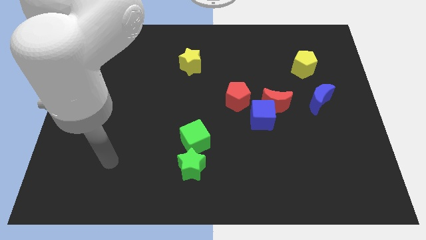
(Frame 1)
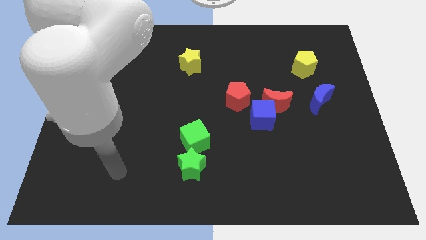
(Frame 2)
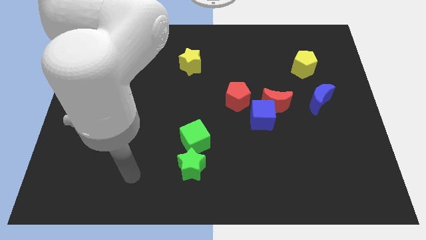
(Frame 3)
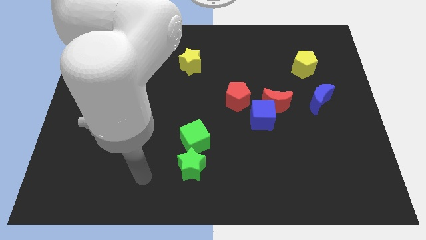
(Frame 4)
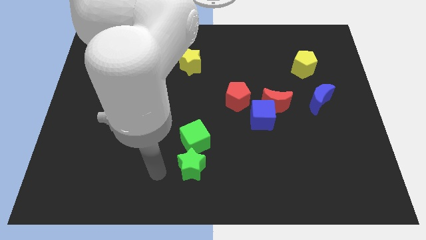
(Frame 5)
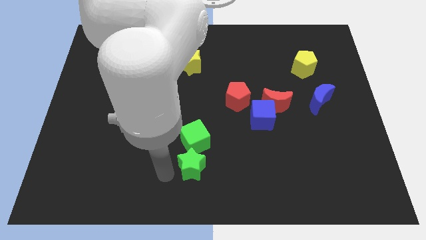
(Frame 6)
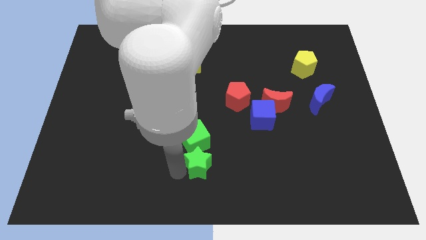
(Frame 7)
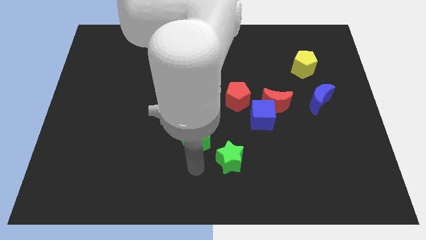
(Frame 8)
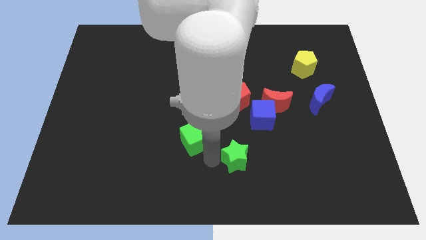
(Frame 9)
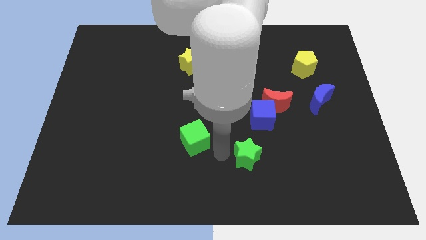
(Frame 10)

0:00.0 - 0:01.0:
separate the green cube from the green star

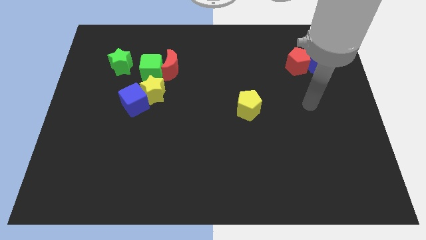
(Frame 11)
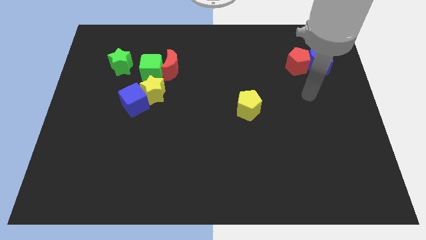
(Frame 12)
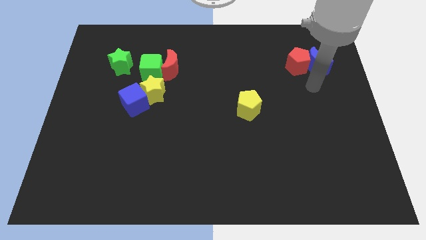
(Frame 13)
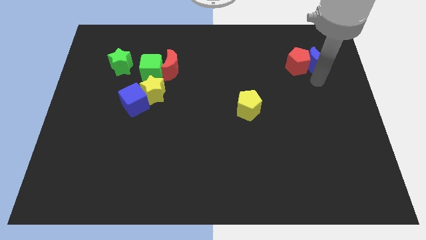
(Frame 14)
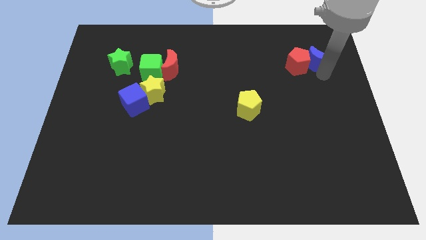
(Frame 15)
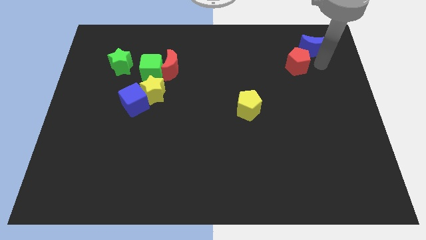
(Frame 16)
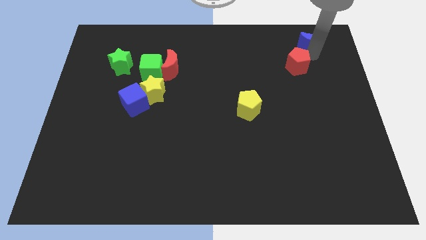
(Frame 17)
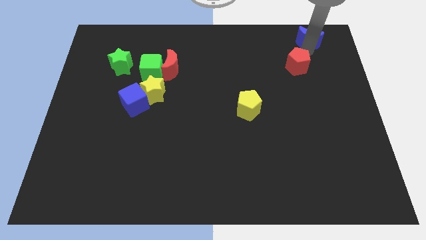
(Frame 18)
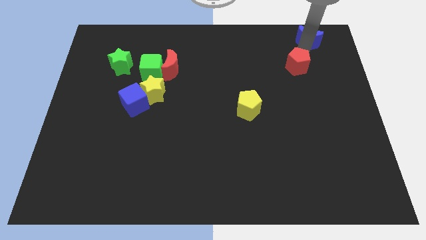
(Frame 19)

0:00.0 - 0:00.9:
move the red pentagon away from the blue moon

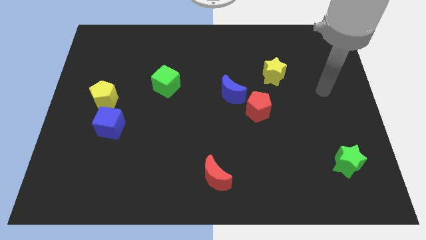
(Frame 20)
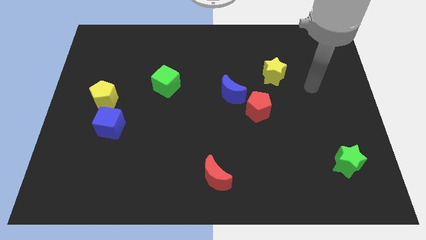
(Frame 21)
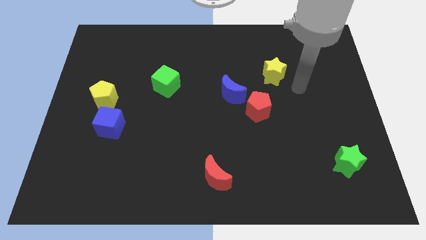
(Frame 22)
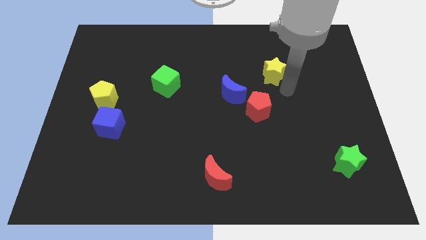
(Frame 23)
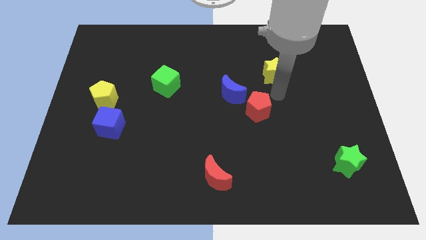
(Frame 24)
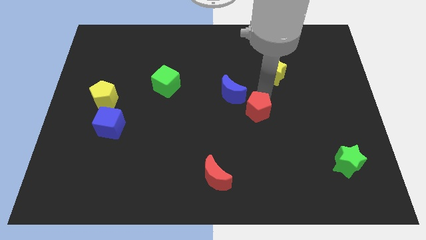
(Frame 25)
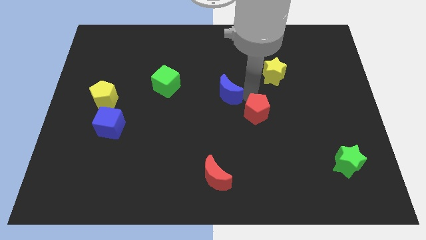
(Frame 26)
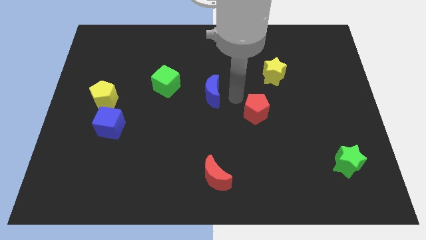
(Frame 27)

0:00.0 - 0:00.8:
separate the red pentagon from the blue moon

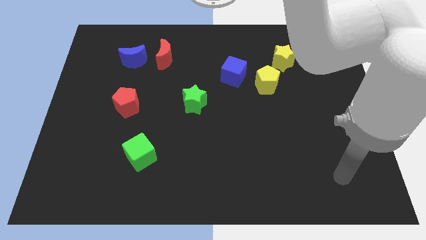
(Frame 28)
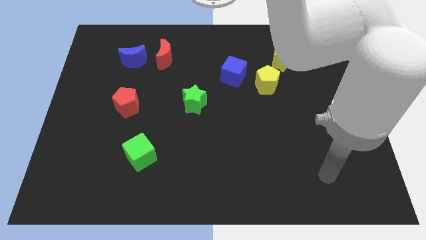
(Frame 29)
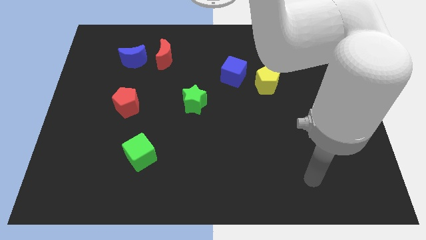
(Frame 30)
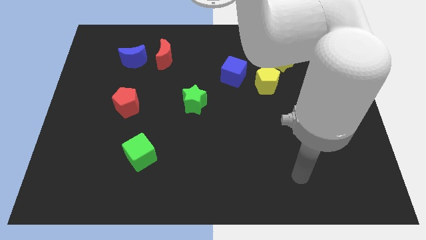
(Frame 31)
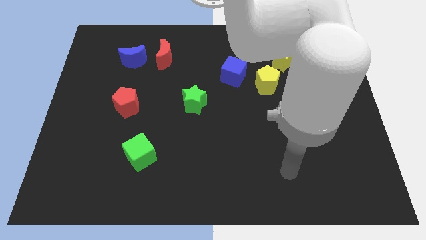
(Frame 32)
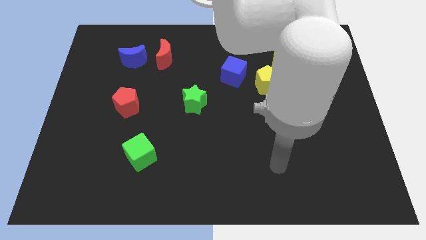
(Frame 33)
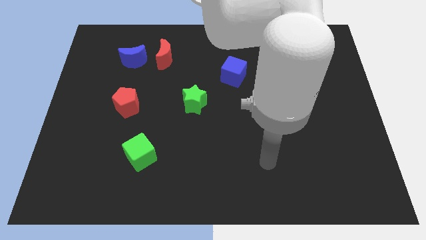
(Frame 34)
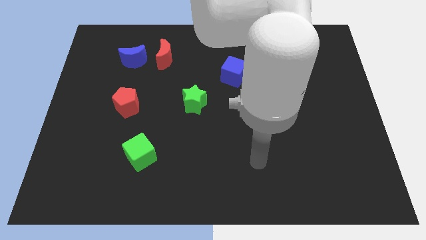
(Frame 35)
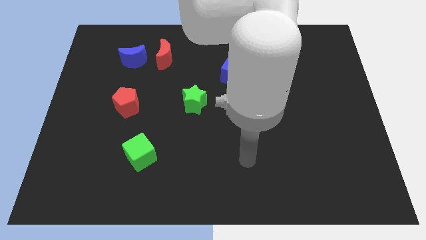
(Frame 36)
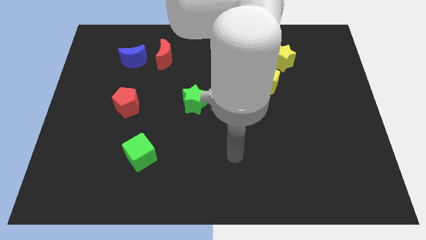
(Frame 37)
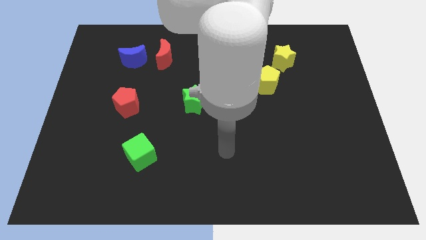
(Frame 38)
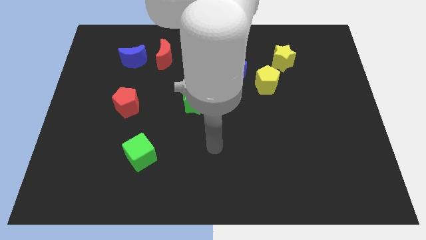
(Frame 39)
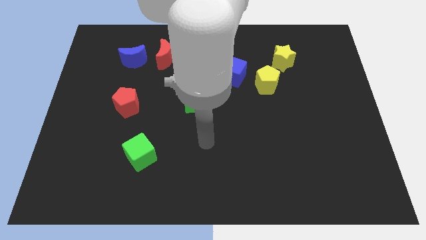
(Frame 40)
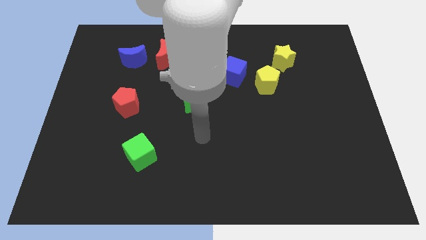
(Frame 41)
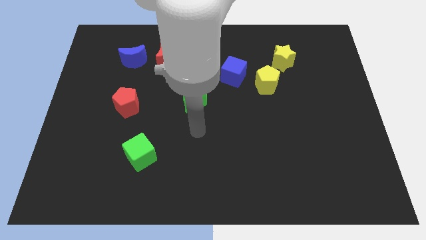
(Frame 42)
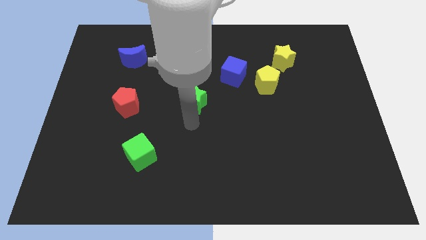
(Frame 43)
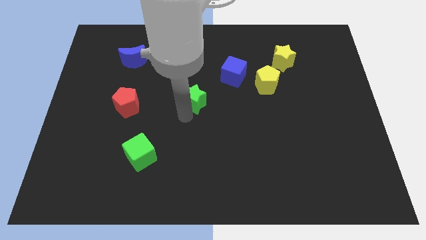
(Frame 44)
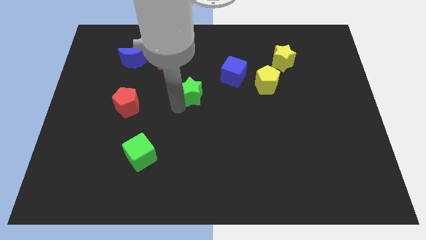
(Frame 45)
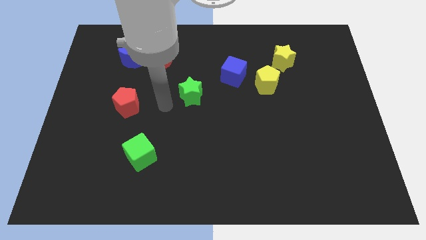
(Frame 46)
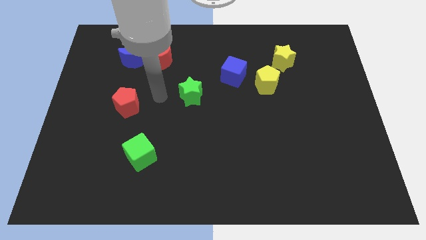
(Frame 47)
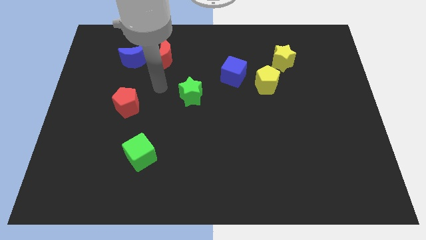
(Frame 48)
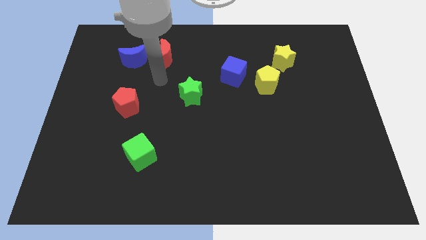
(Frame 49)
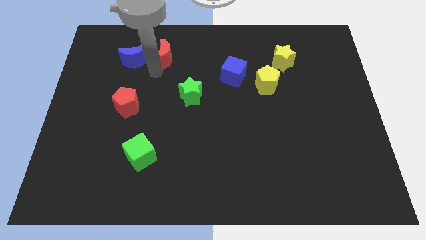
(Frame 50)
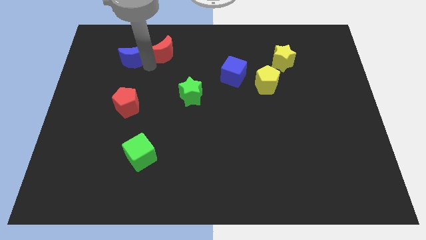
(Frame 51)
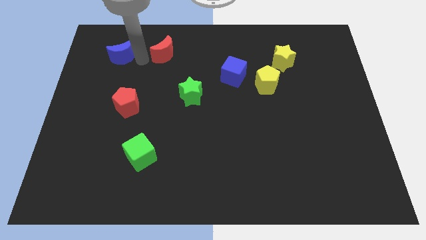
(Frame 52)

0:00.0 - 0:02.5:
pull the red moon apart from the blue moon

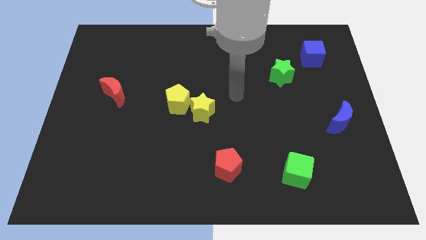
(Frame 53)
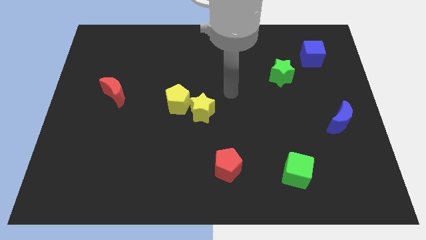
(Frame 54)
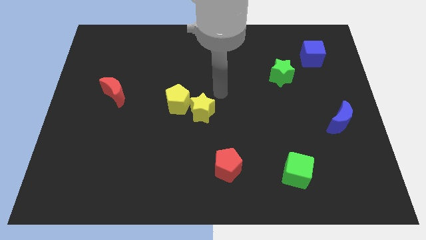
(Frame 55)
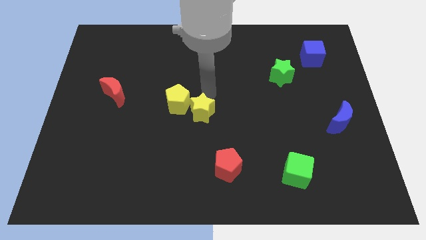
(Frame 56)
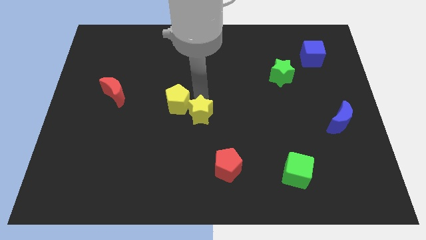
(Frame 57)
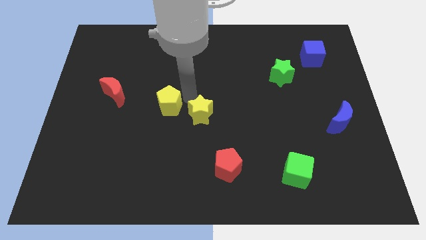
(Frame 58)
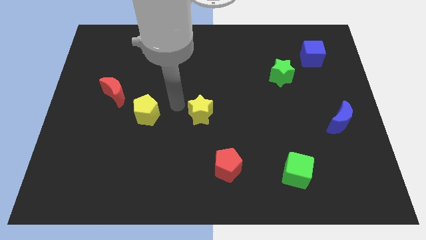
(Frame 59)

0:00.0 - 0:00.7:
pull the yellow star apart from the yellow pentagon

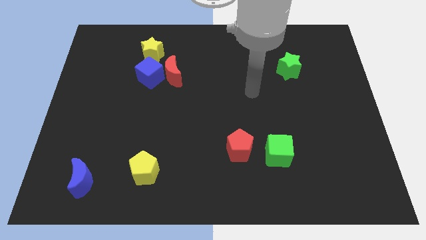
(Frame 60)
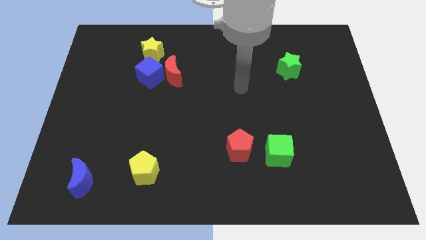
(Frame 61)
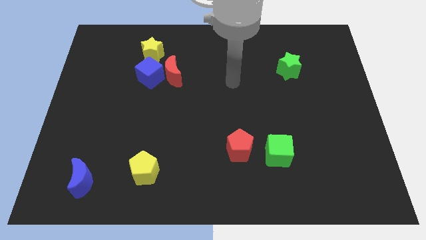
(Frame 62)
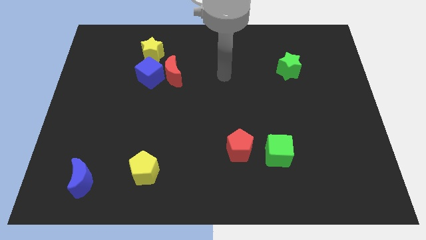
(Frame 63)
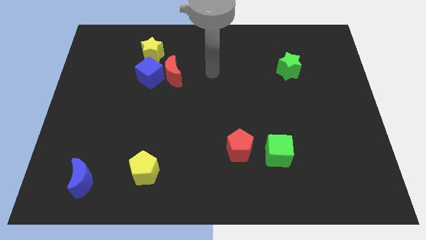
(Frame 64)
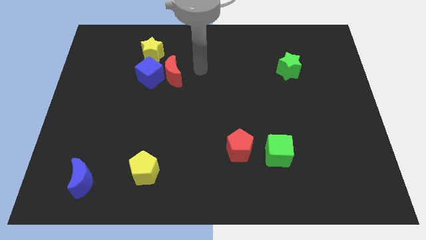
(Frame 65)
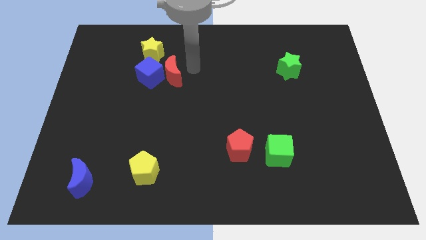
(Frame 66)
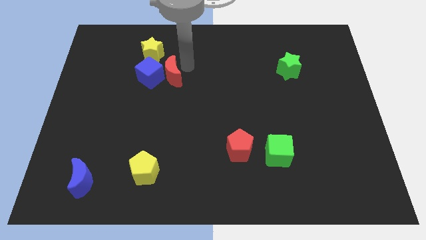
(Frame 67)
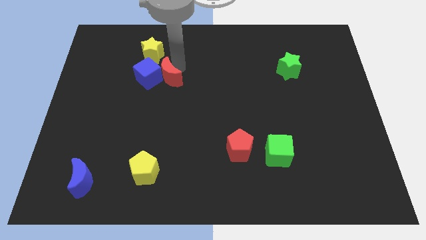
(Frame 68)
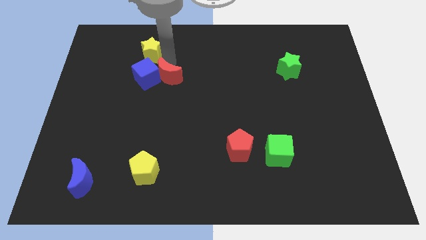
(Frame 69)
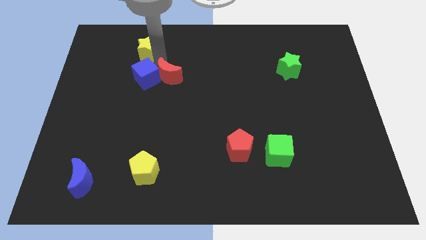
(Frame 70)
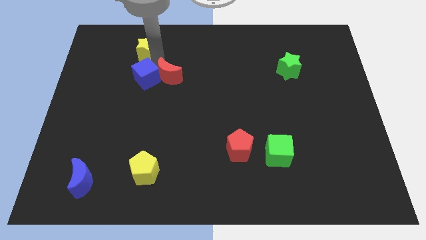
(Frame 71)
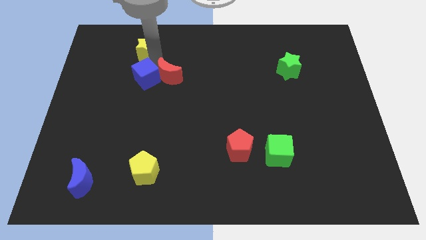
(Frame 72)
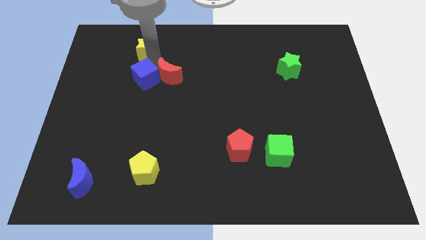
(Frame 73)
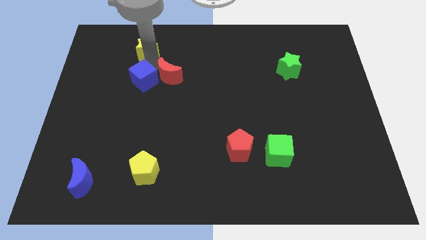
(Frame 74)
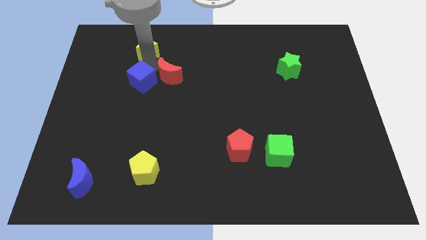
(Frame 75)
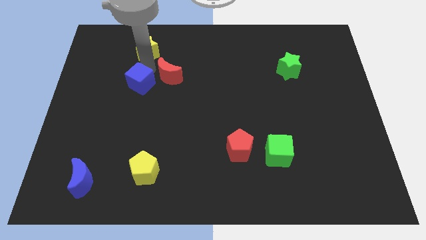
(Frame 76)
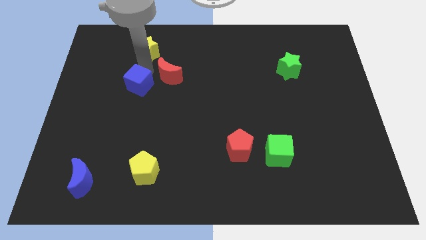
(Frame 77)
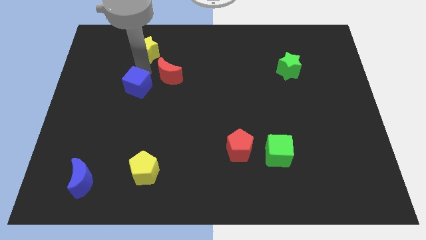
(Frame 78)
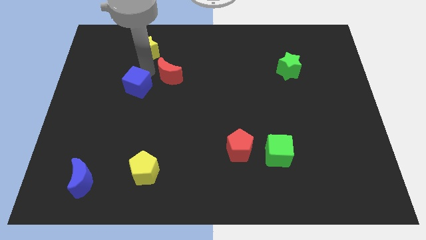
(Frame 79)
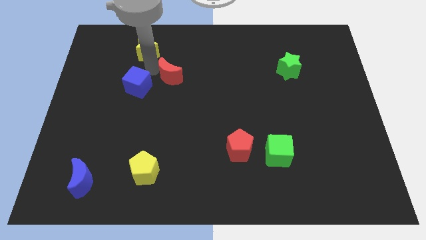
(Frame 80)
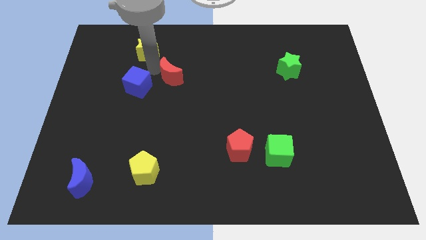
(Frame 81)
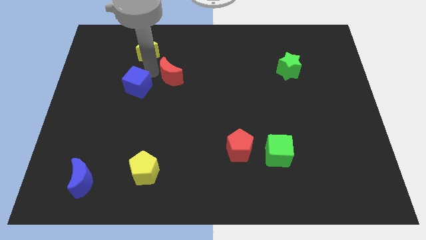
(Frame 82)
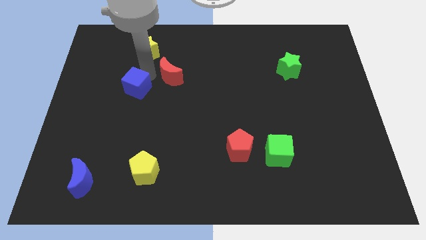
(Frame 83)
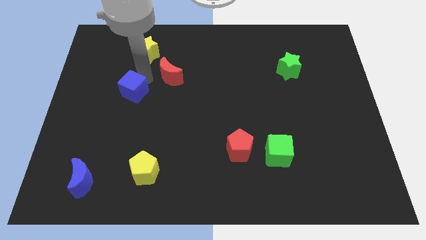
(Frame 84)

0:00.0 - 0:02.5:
move the blue cube away from the red moon and yellow star

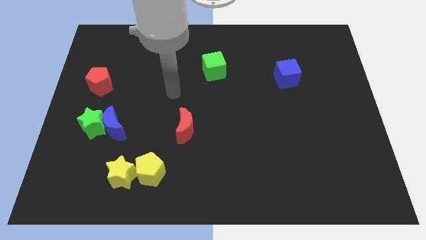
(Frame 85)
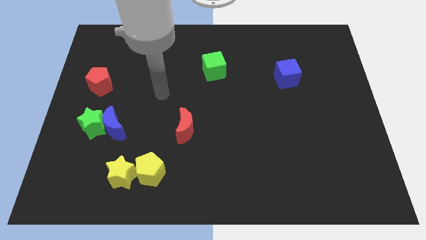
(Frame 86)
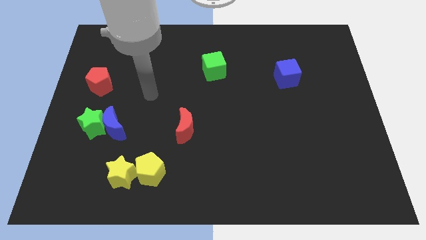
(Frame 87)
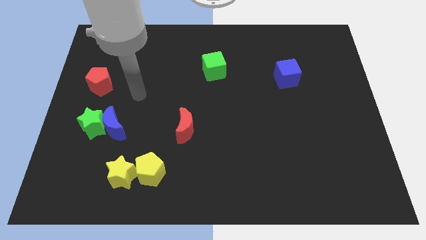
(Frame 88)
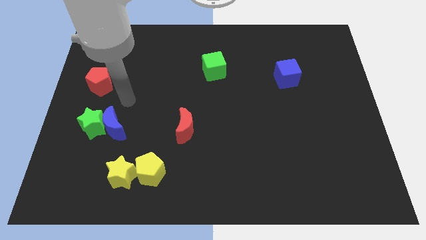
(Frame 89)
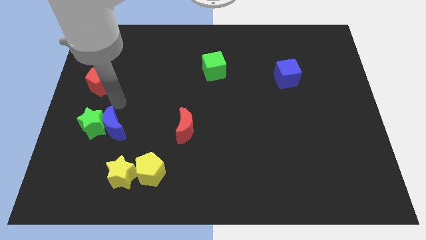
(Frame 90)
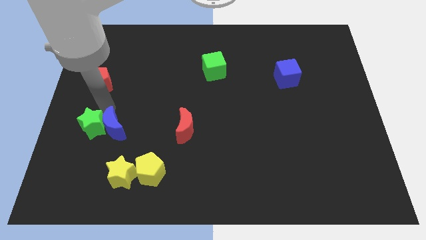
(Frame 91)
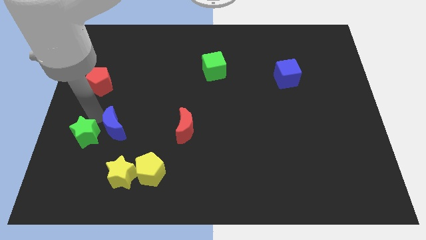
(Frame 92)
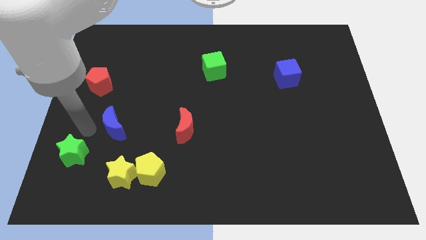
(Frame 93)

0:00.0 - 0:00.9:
move the blue moon away from the green star

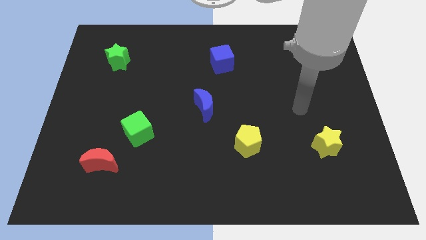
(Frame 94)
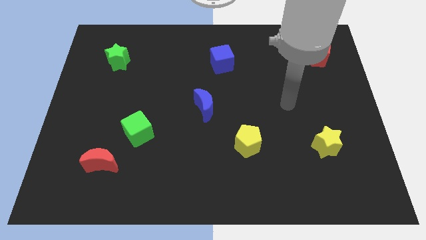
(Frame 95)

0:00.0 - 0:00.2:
move the red moon away from the green cube
